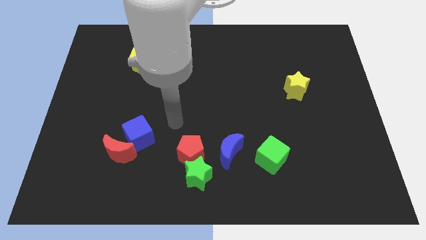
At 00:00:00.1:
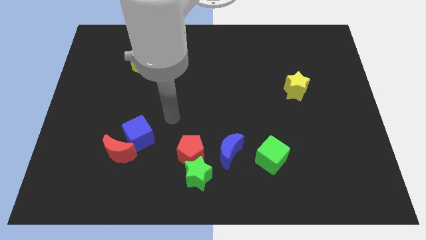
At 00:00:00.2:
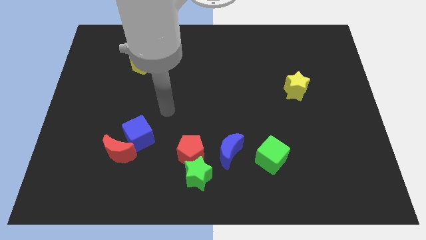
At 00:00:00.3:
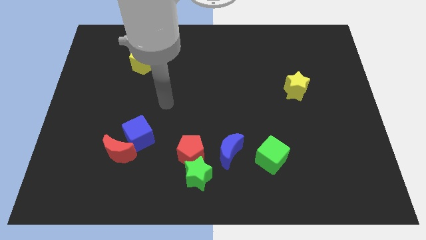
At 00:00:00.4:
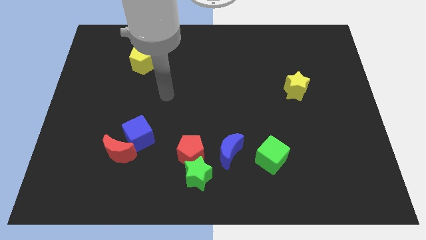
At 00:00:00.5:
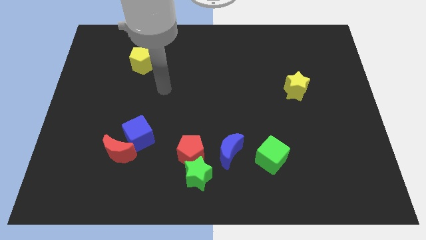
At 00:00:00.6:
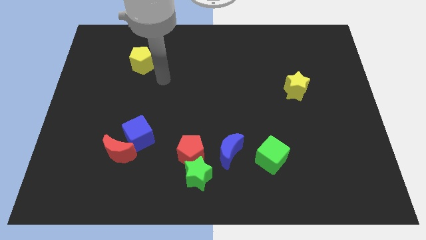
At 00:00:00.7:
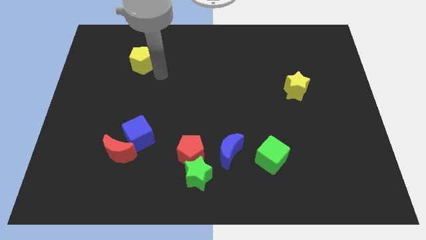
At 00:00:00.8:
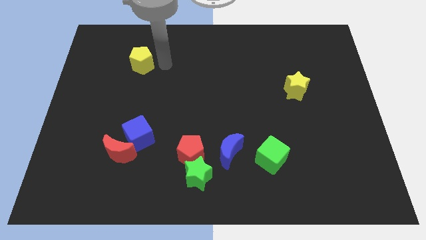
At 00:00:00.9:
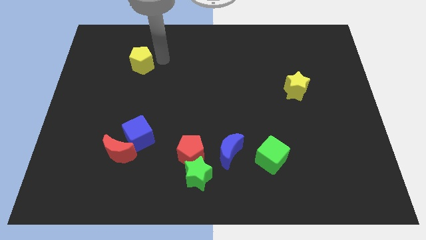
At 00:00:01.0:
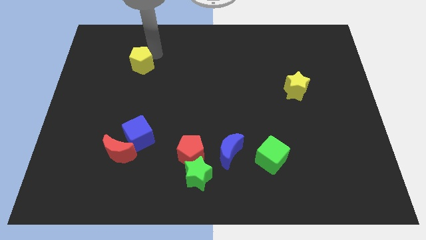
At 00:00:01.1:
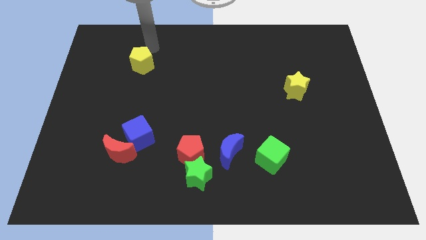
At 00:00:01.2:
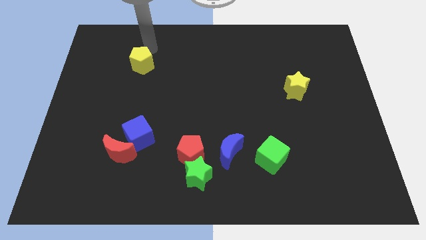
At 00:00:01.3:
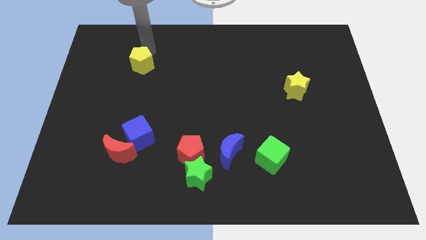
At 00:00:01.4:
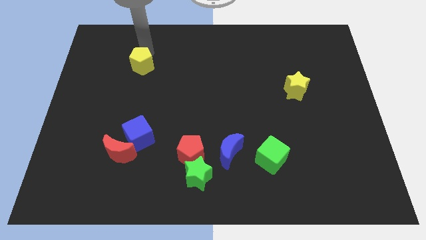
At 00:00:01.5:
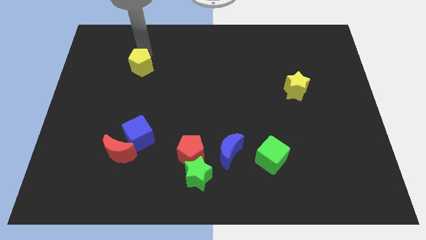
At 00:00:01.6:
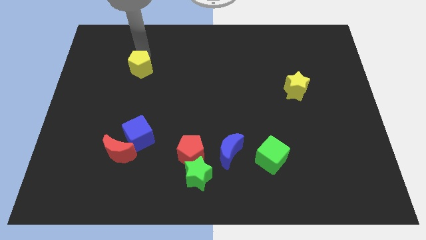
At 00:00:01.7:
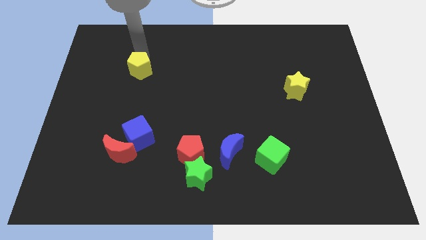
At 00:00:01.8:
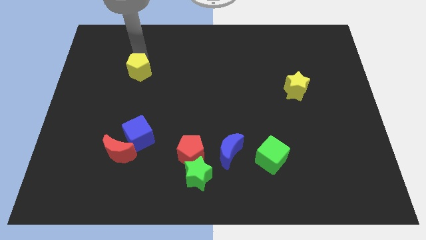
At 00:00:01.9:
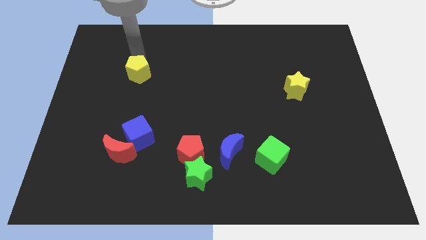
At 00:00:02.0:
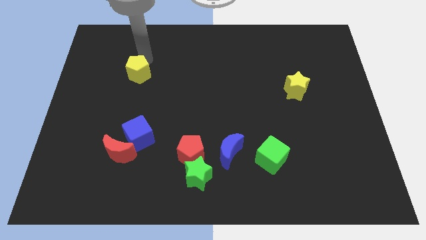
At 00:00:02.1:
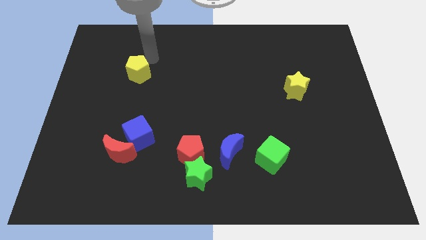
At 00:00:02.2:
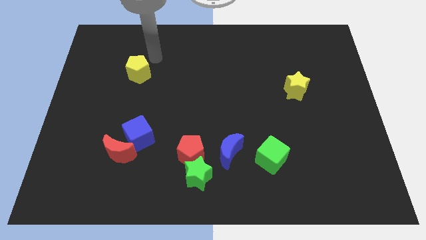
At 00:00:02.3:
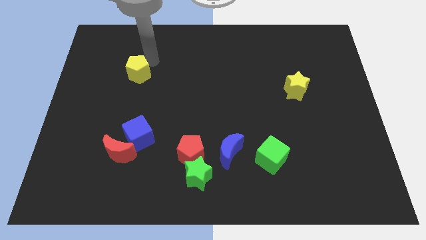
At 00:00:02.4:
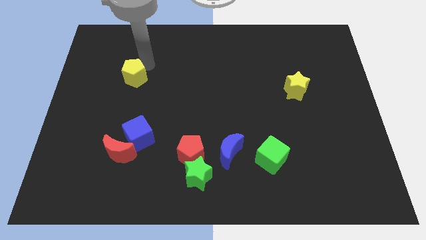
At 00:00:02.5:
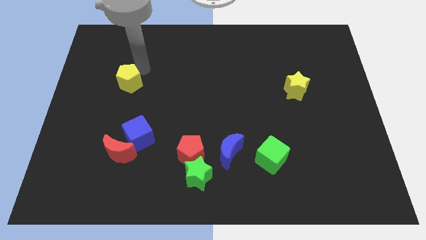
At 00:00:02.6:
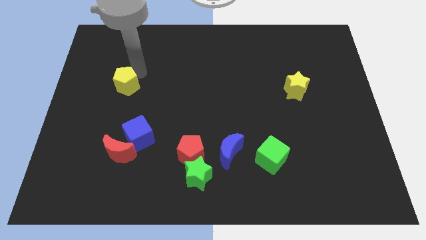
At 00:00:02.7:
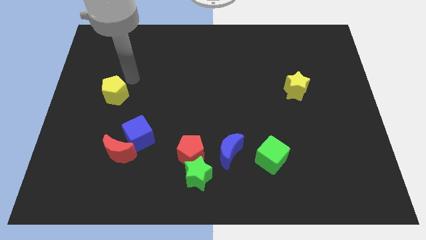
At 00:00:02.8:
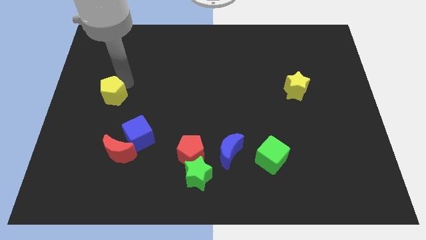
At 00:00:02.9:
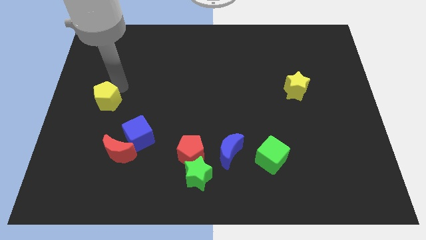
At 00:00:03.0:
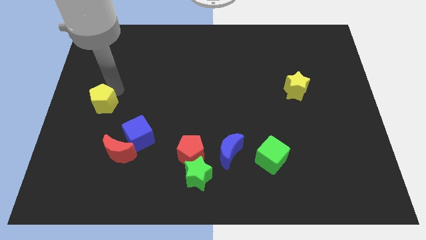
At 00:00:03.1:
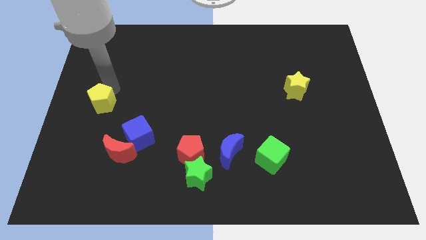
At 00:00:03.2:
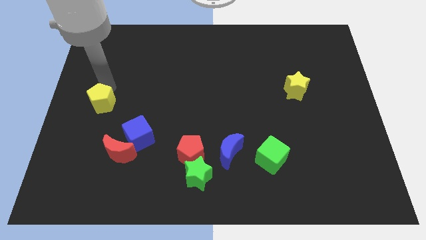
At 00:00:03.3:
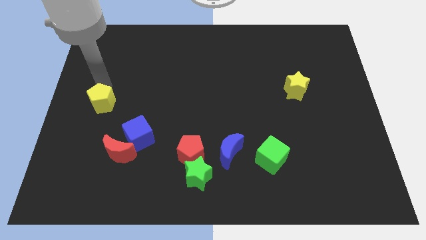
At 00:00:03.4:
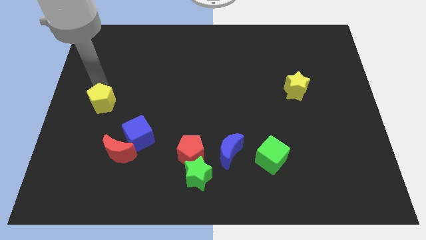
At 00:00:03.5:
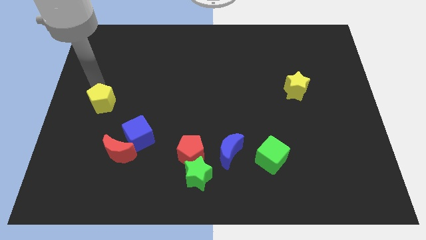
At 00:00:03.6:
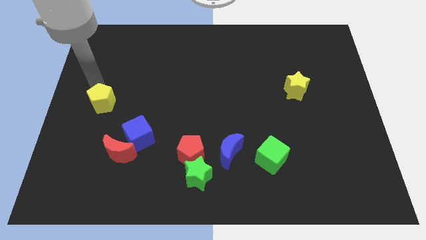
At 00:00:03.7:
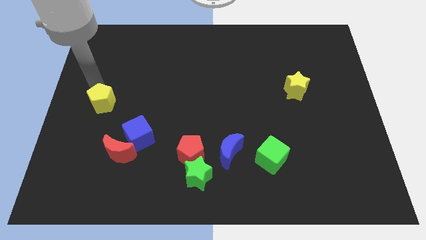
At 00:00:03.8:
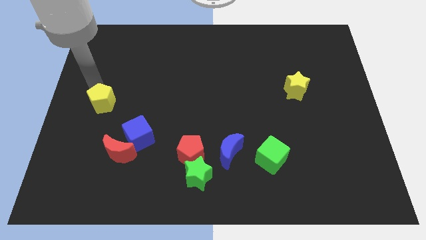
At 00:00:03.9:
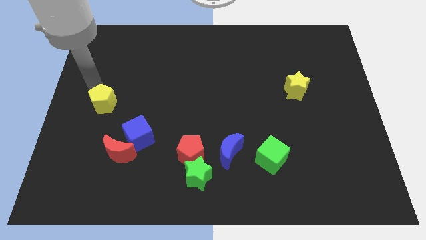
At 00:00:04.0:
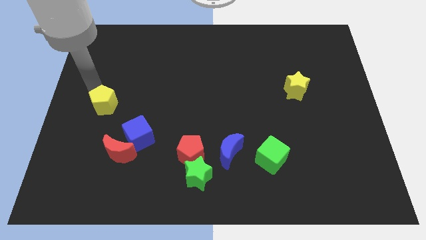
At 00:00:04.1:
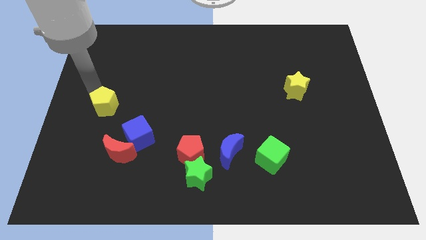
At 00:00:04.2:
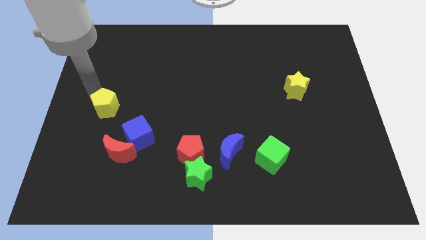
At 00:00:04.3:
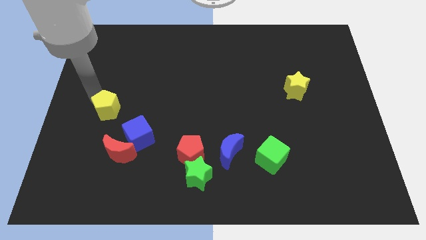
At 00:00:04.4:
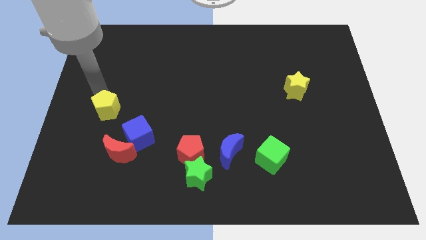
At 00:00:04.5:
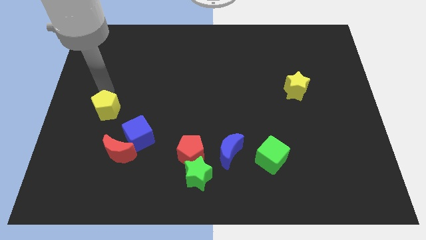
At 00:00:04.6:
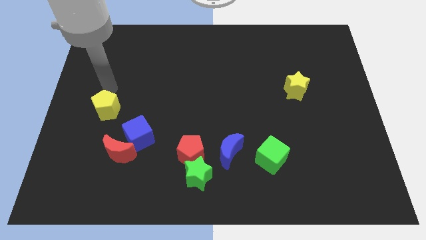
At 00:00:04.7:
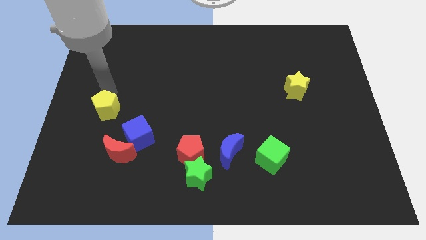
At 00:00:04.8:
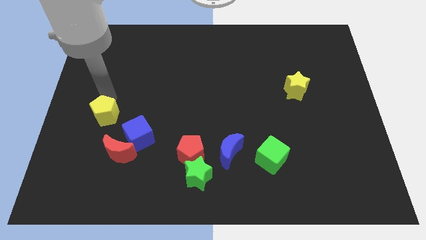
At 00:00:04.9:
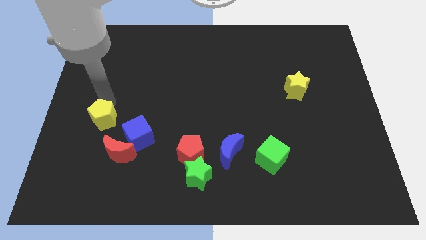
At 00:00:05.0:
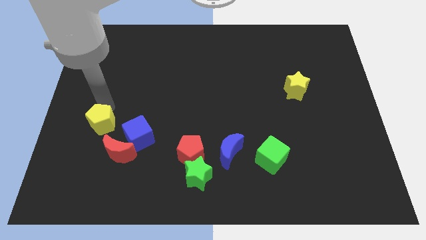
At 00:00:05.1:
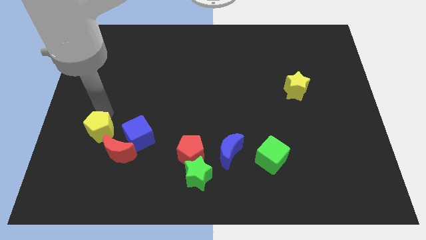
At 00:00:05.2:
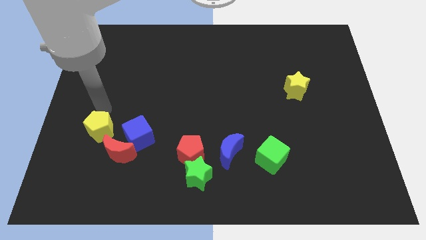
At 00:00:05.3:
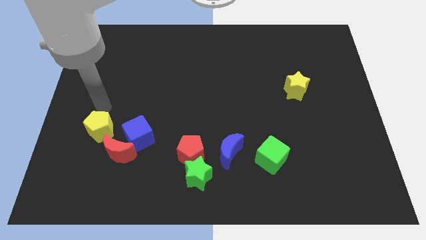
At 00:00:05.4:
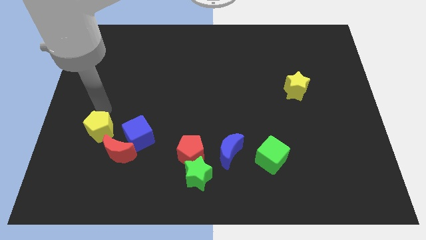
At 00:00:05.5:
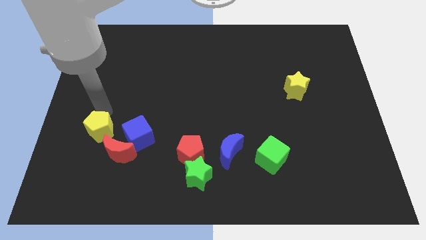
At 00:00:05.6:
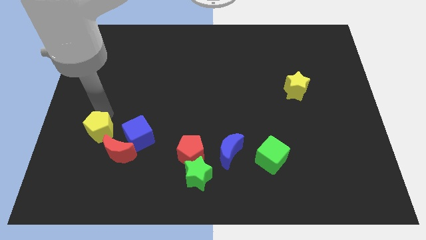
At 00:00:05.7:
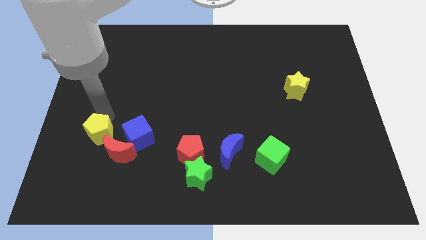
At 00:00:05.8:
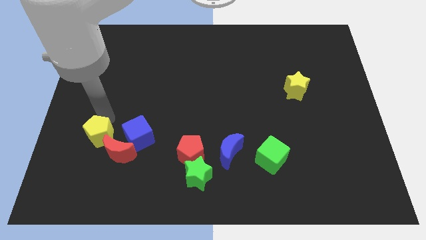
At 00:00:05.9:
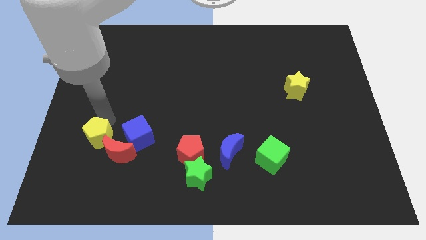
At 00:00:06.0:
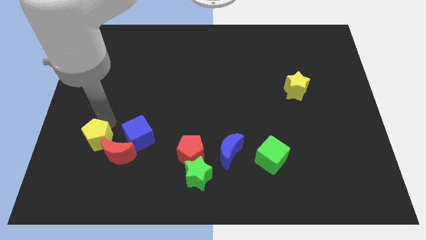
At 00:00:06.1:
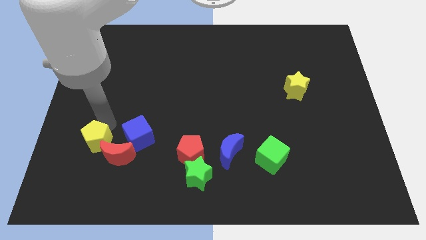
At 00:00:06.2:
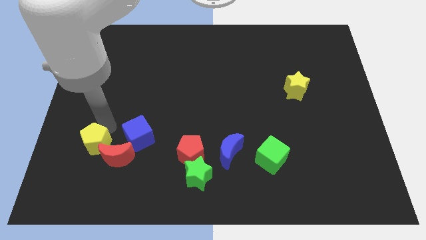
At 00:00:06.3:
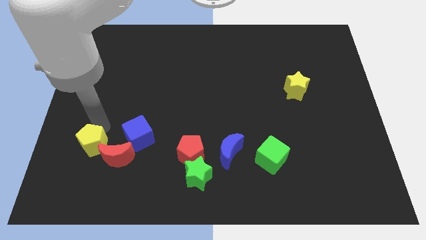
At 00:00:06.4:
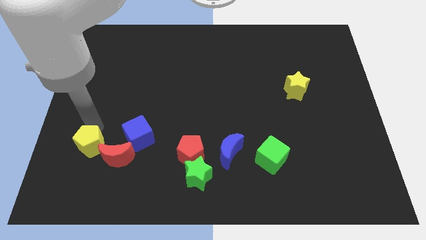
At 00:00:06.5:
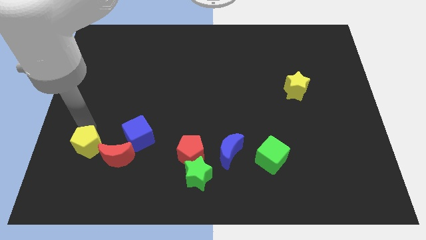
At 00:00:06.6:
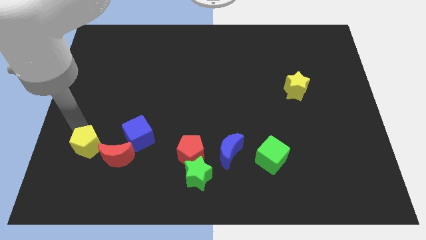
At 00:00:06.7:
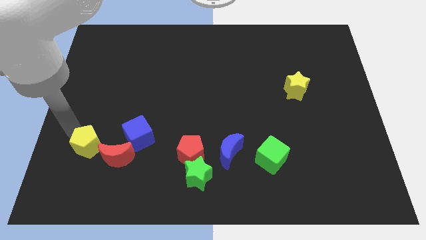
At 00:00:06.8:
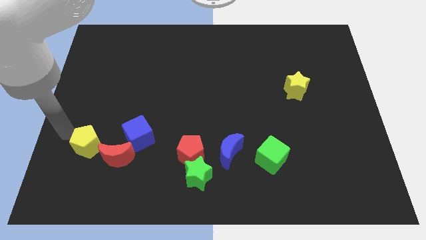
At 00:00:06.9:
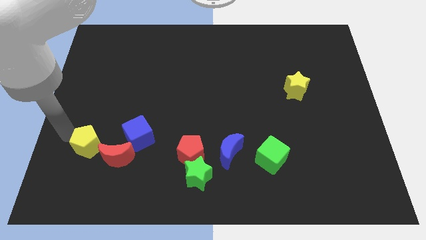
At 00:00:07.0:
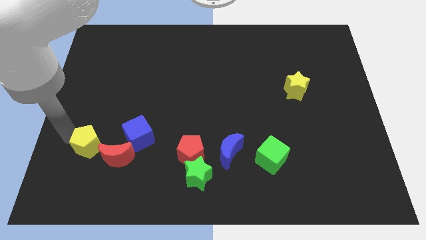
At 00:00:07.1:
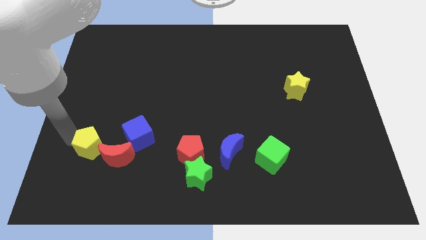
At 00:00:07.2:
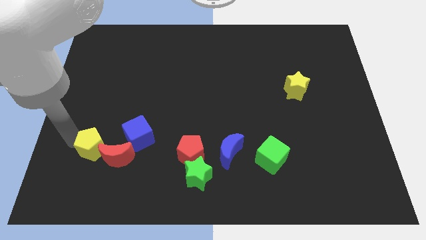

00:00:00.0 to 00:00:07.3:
put the yellow pentagon to the bottom left of the blue cube
